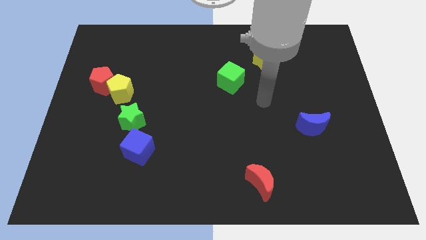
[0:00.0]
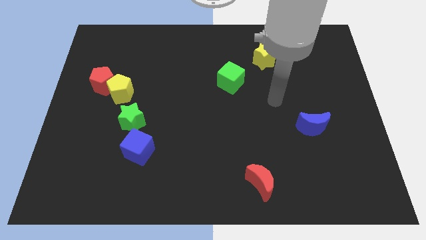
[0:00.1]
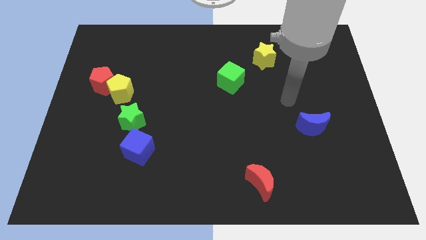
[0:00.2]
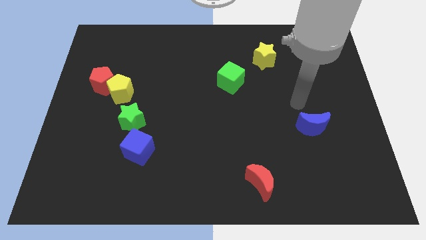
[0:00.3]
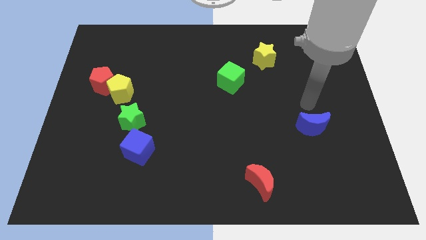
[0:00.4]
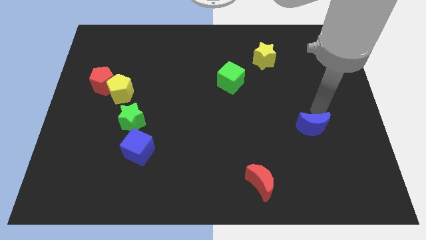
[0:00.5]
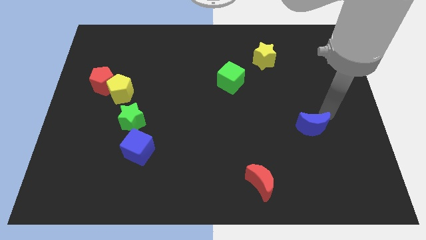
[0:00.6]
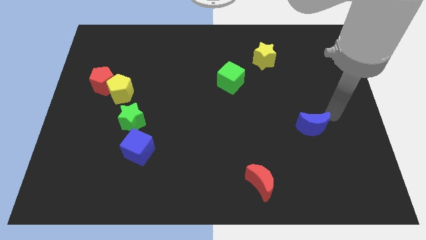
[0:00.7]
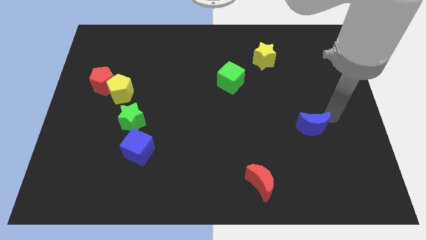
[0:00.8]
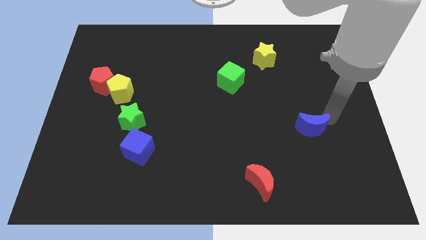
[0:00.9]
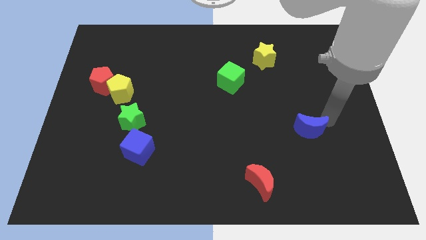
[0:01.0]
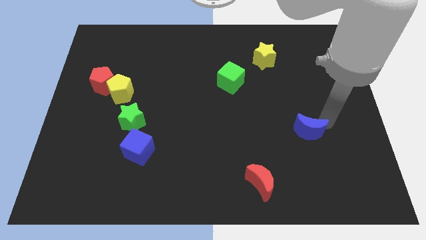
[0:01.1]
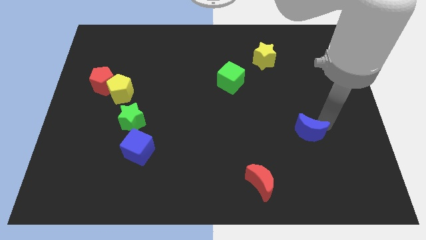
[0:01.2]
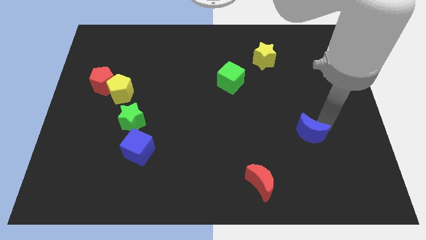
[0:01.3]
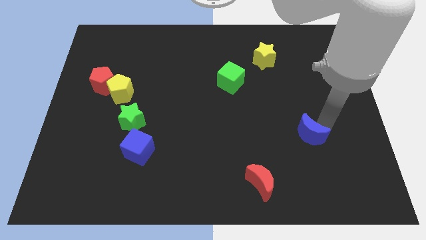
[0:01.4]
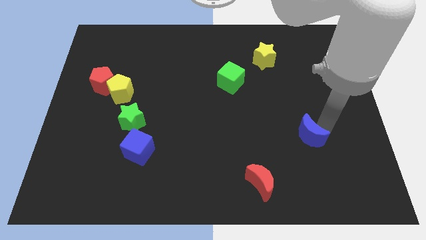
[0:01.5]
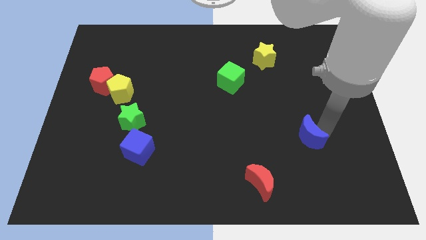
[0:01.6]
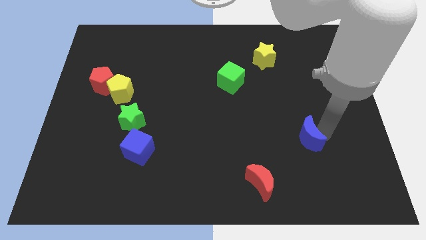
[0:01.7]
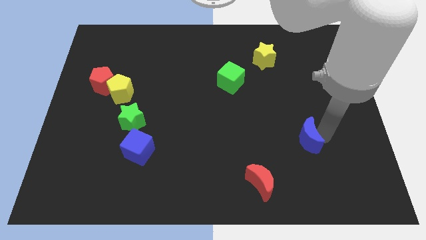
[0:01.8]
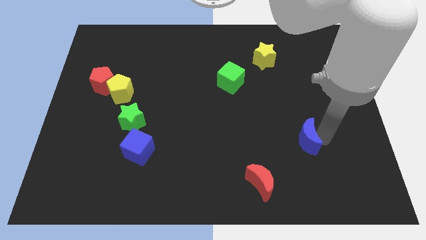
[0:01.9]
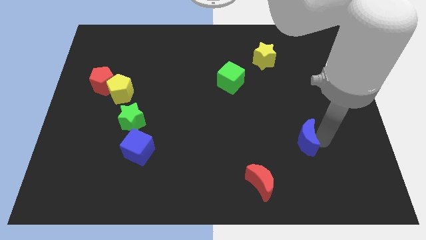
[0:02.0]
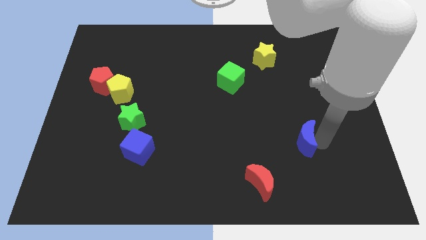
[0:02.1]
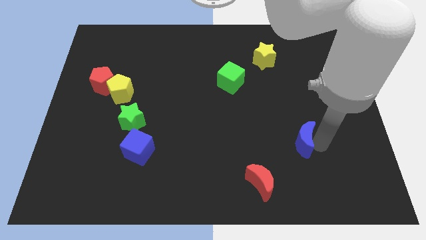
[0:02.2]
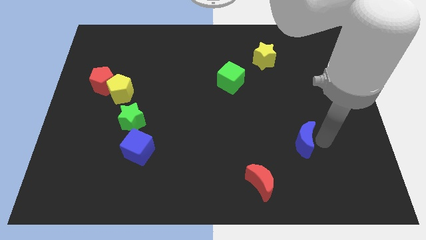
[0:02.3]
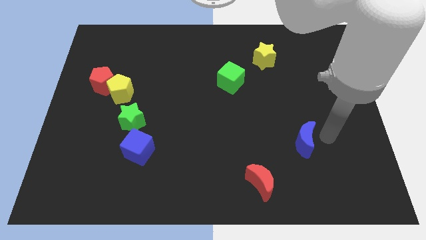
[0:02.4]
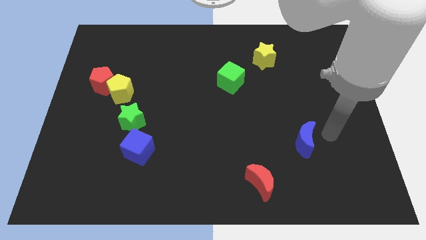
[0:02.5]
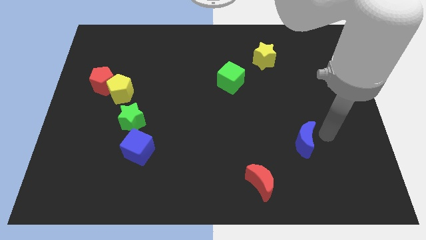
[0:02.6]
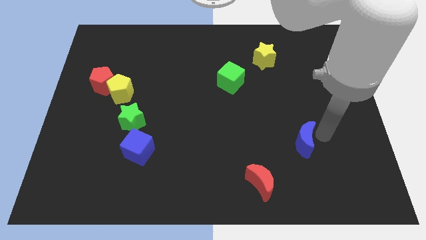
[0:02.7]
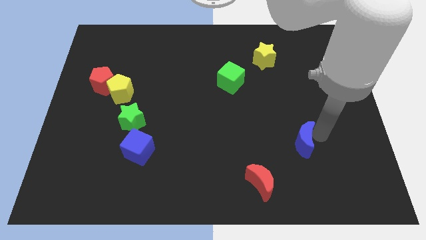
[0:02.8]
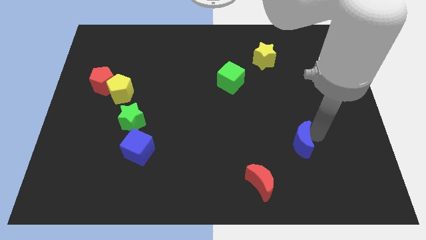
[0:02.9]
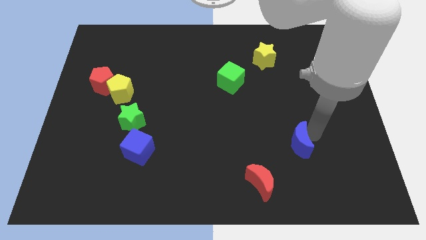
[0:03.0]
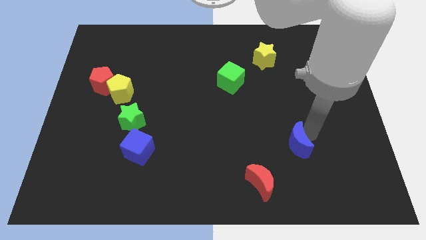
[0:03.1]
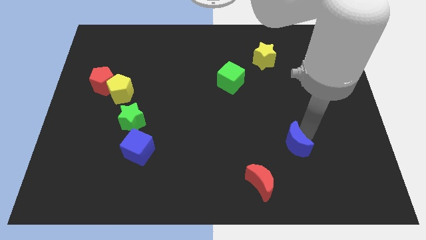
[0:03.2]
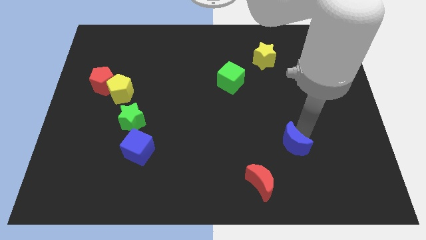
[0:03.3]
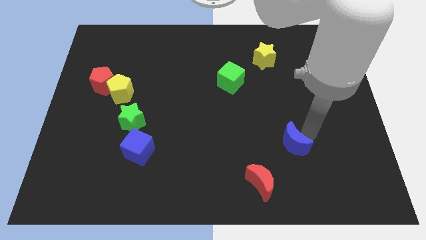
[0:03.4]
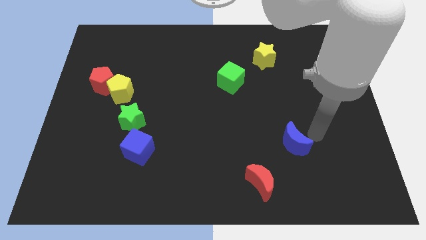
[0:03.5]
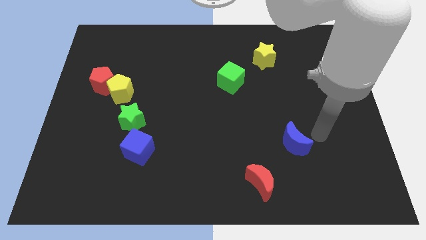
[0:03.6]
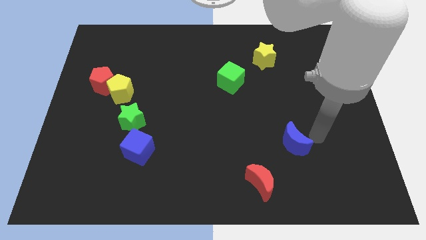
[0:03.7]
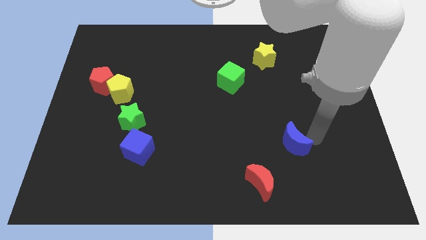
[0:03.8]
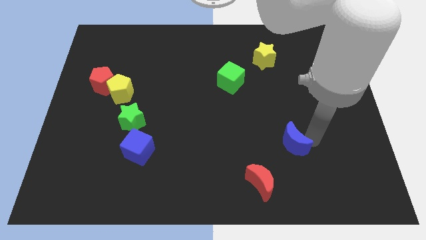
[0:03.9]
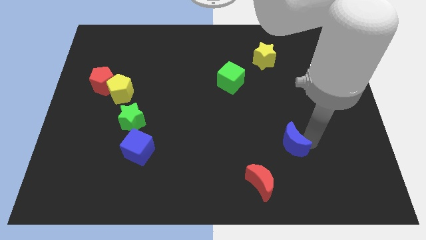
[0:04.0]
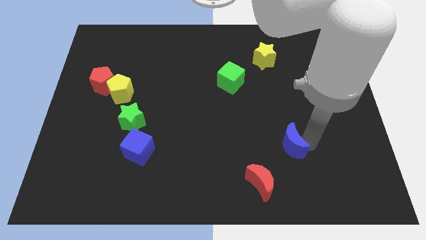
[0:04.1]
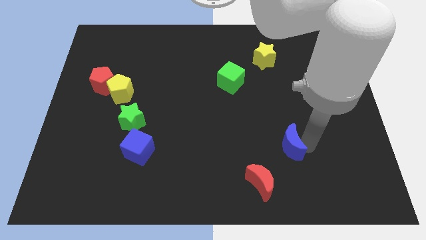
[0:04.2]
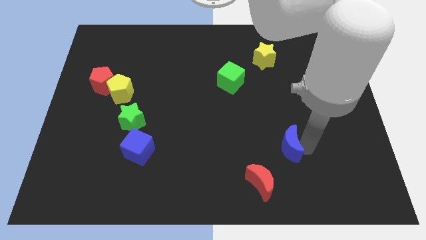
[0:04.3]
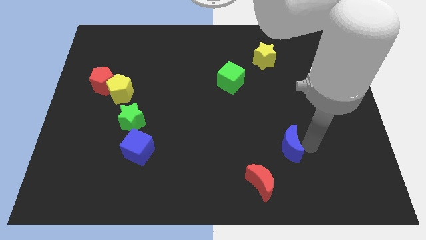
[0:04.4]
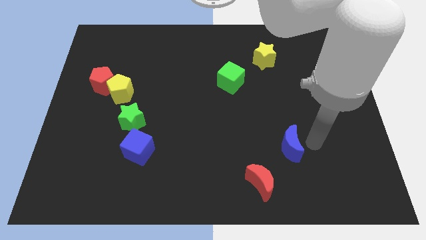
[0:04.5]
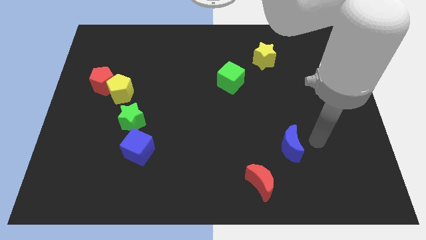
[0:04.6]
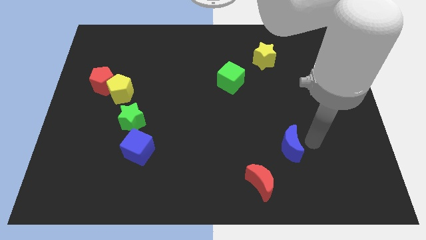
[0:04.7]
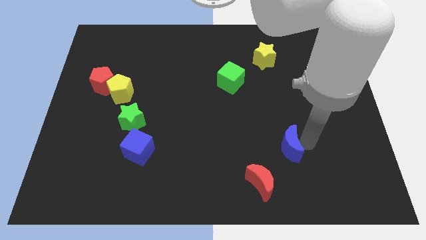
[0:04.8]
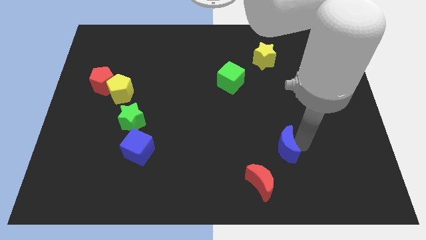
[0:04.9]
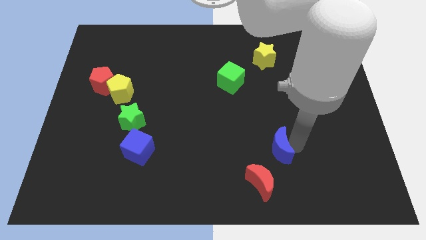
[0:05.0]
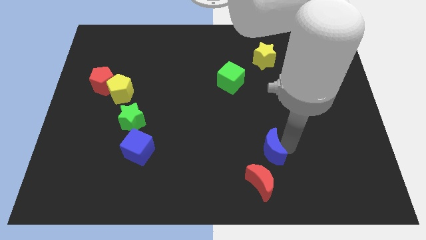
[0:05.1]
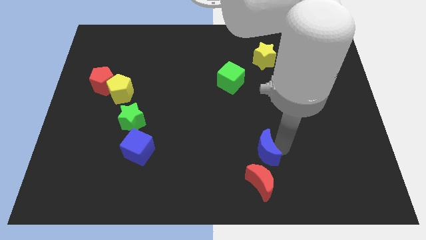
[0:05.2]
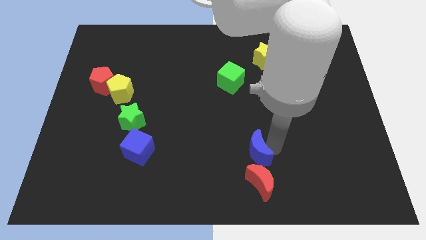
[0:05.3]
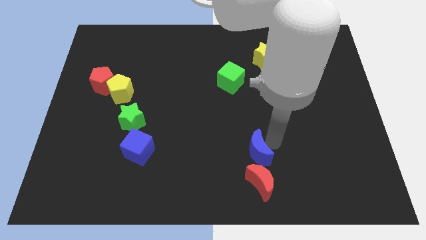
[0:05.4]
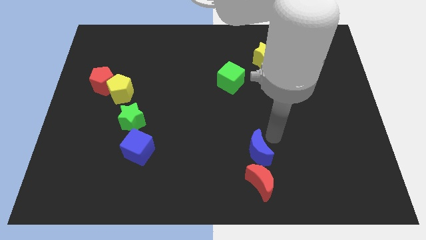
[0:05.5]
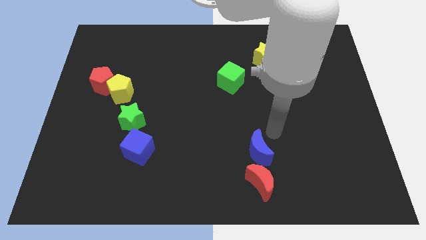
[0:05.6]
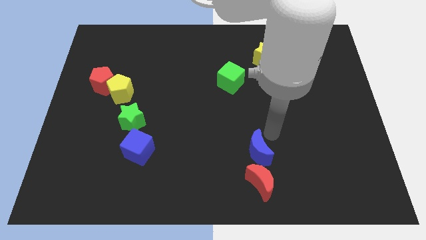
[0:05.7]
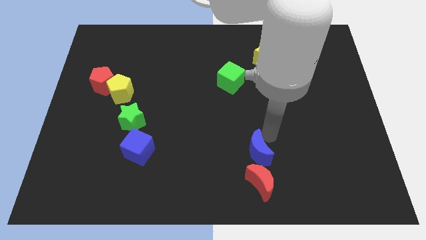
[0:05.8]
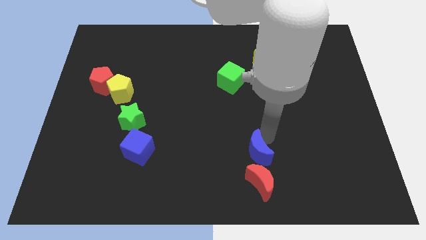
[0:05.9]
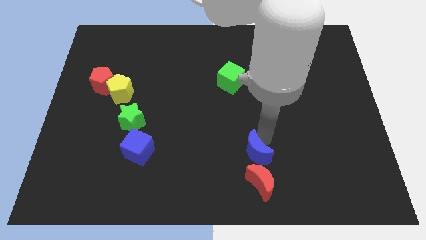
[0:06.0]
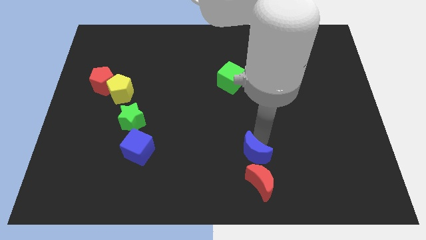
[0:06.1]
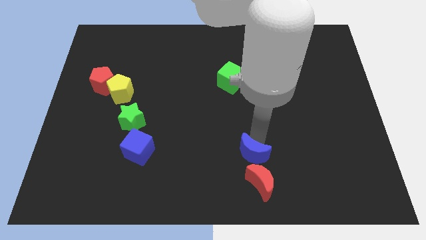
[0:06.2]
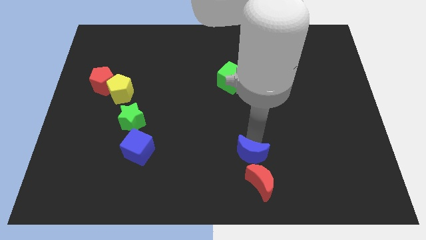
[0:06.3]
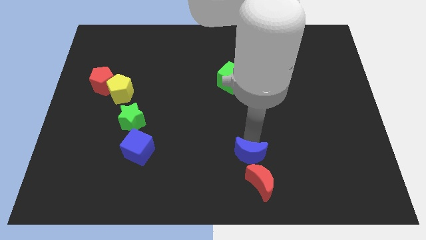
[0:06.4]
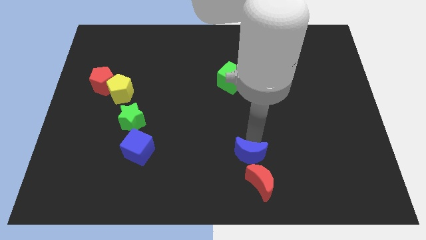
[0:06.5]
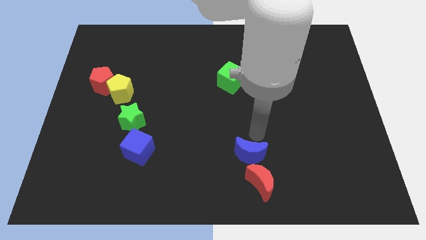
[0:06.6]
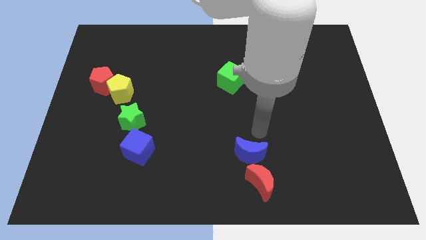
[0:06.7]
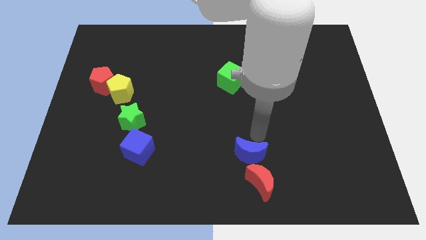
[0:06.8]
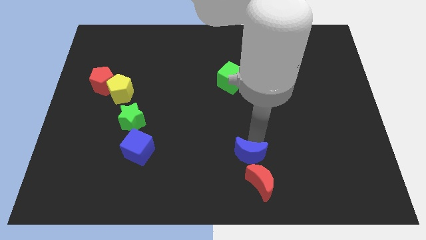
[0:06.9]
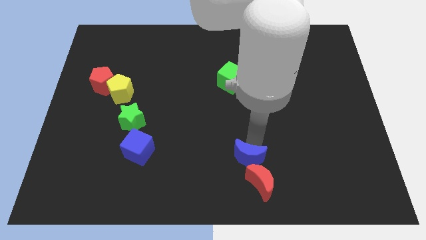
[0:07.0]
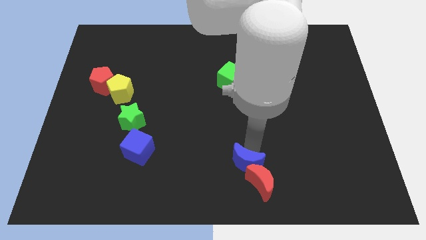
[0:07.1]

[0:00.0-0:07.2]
put the blue moon to the bottom side
